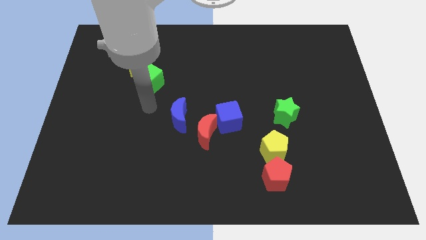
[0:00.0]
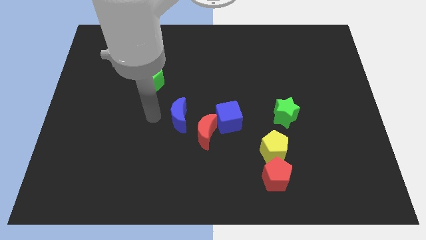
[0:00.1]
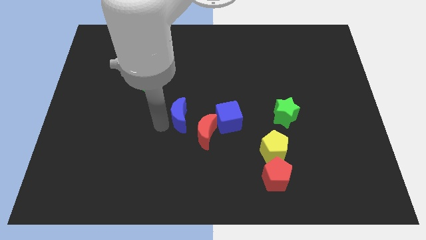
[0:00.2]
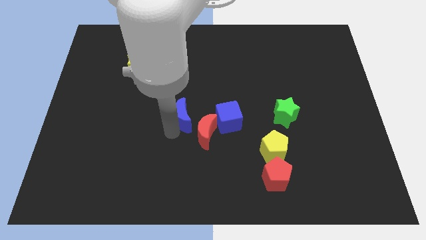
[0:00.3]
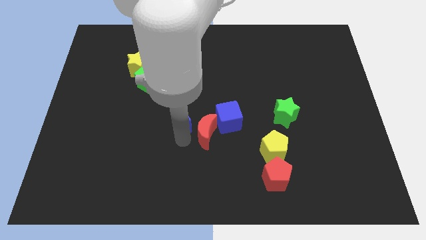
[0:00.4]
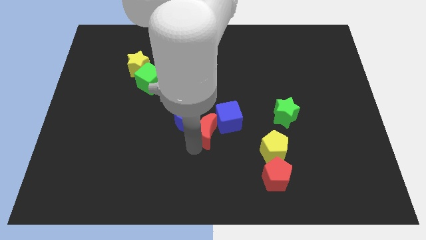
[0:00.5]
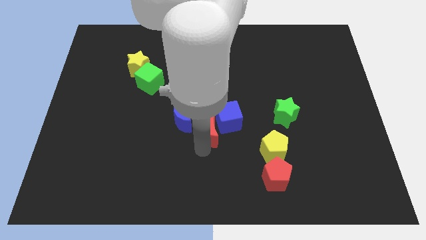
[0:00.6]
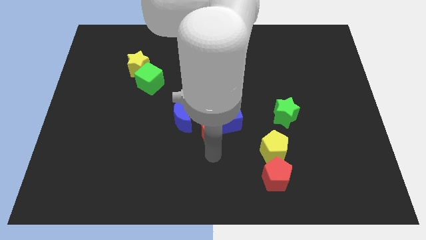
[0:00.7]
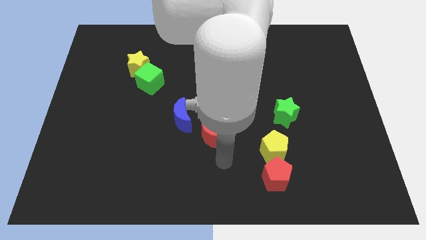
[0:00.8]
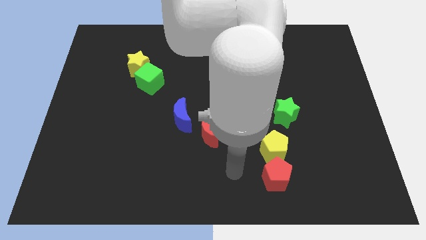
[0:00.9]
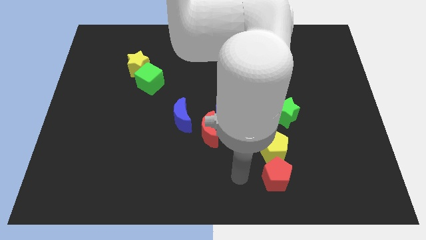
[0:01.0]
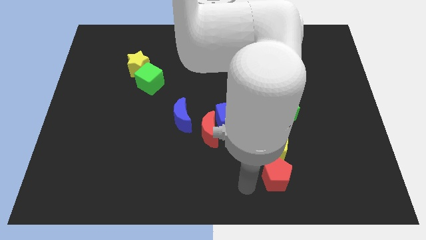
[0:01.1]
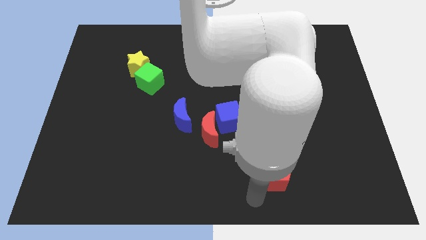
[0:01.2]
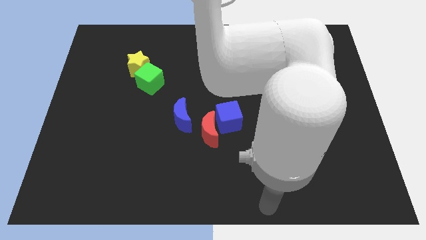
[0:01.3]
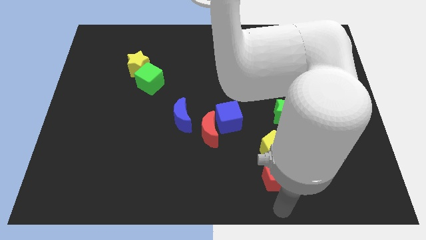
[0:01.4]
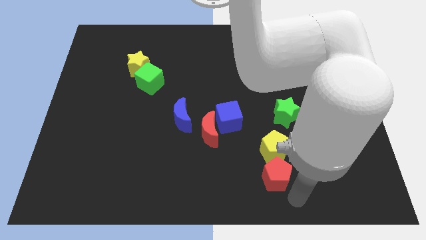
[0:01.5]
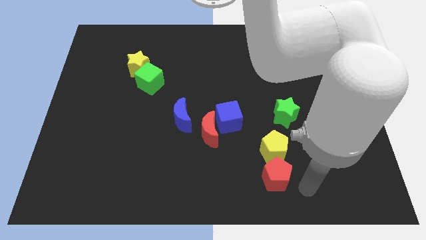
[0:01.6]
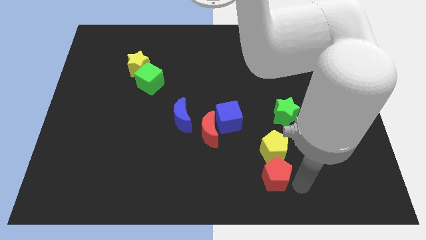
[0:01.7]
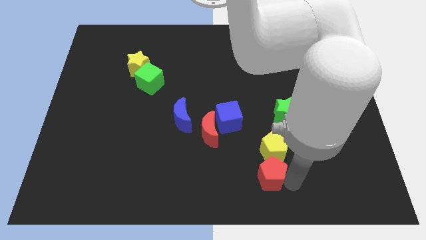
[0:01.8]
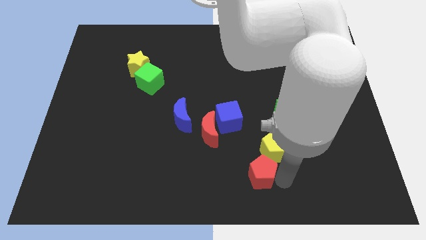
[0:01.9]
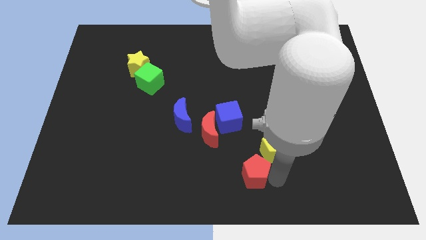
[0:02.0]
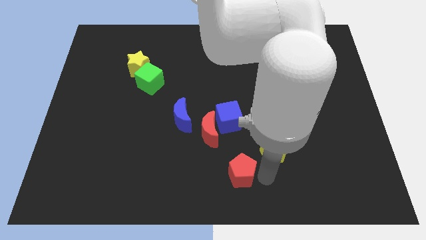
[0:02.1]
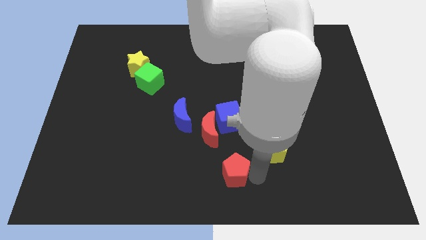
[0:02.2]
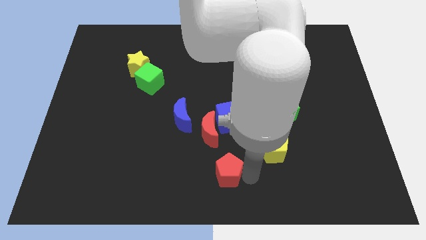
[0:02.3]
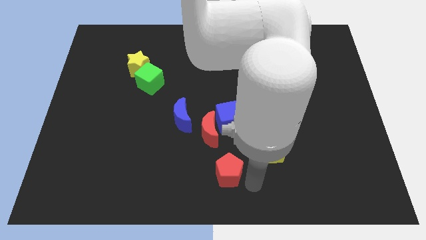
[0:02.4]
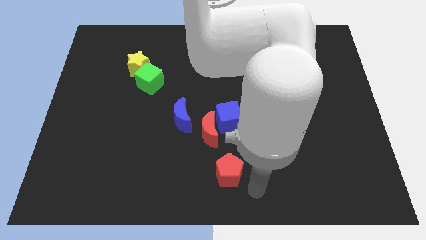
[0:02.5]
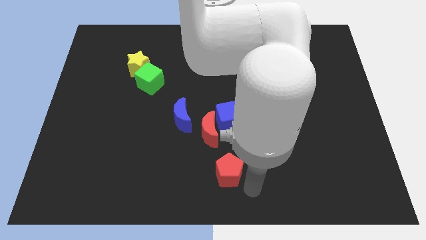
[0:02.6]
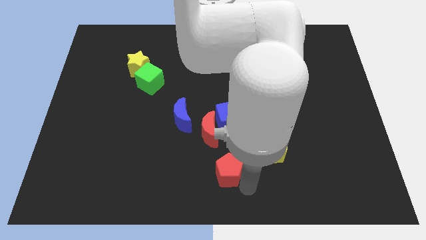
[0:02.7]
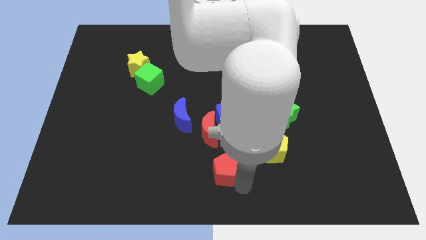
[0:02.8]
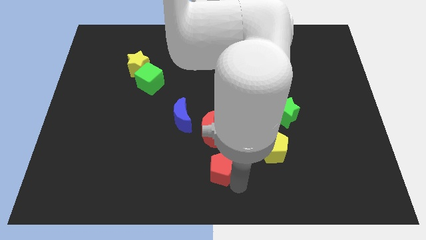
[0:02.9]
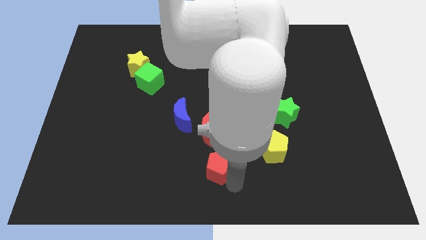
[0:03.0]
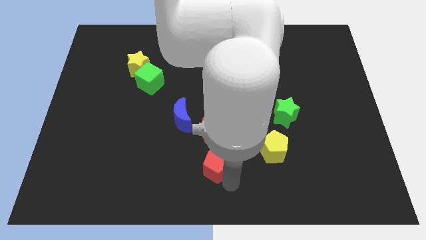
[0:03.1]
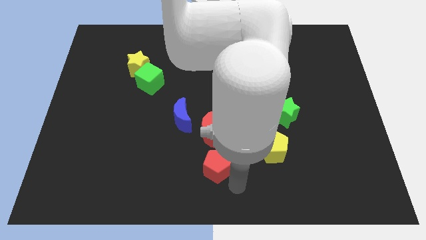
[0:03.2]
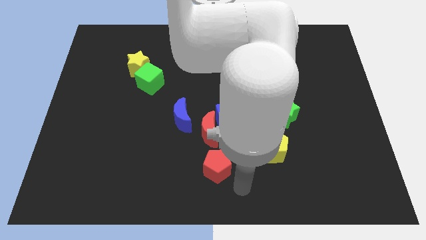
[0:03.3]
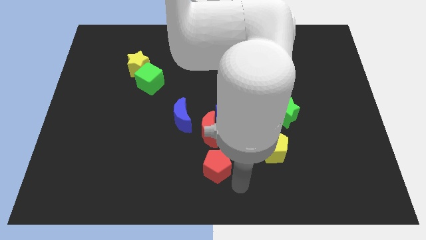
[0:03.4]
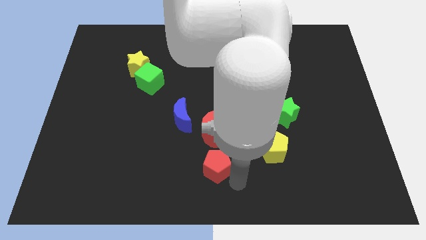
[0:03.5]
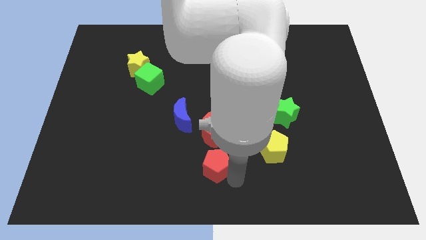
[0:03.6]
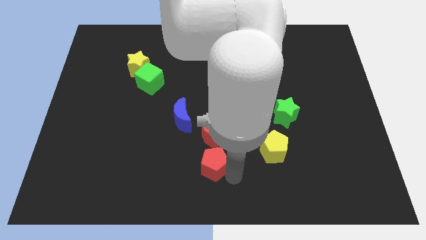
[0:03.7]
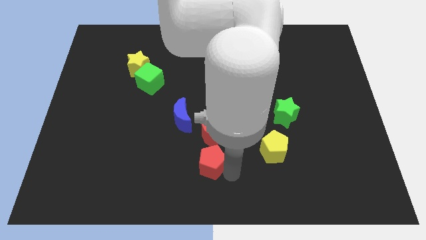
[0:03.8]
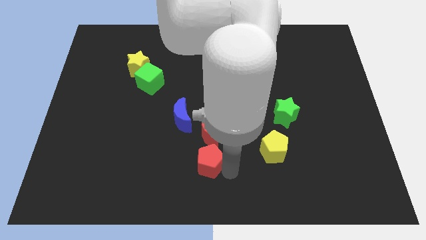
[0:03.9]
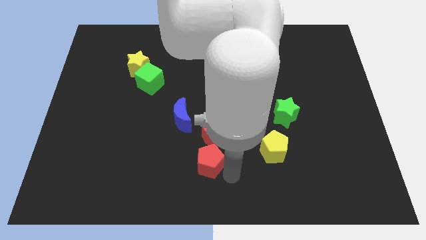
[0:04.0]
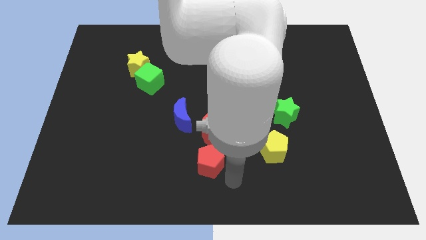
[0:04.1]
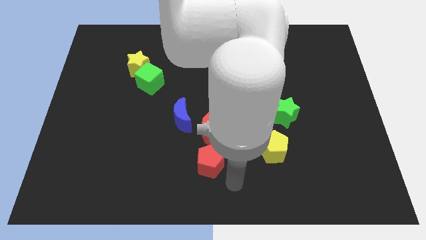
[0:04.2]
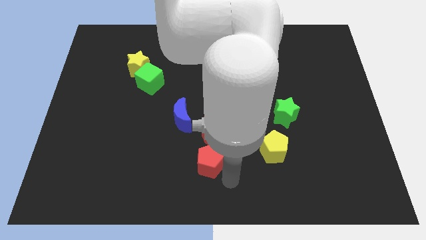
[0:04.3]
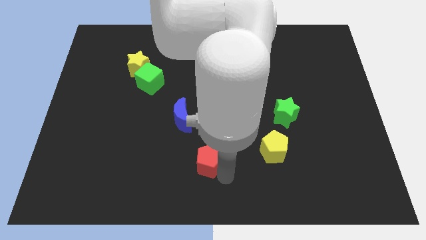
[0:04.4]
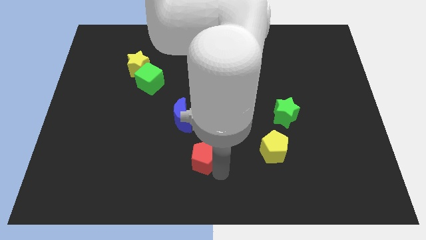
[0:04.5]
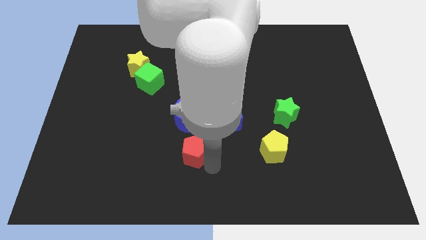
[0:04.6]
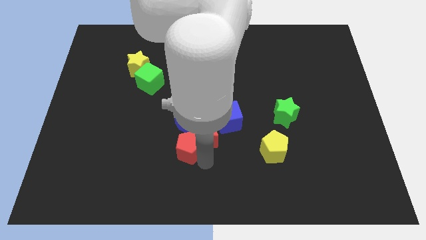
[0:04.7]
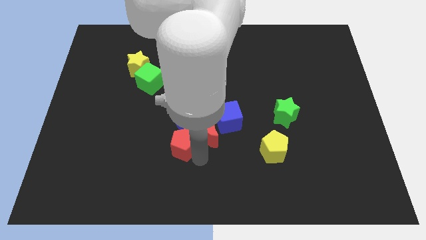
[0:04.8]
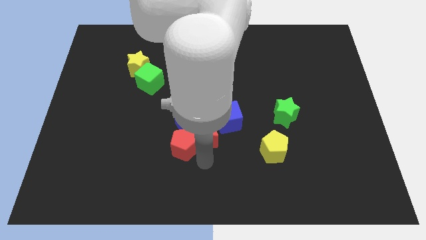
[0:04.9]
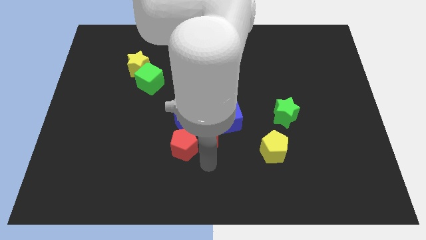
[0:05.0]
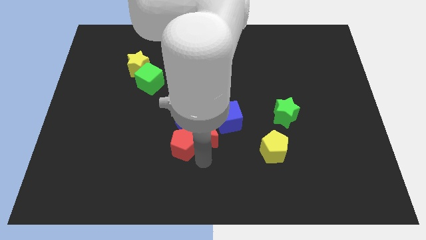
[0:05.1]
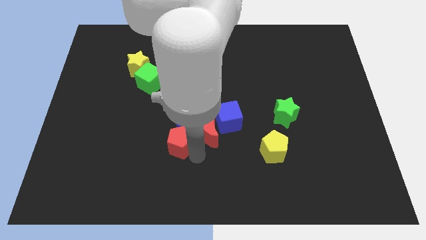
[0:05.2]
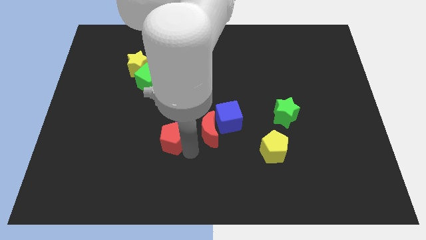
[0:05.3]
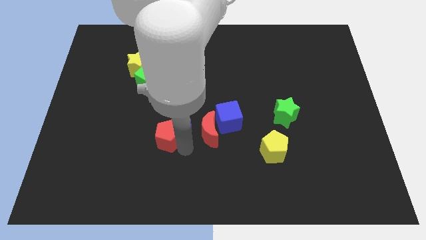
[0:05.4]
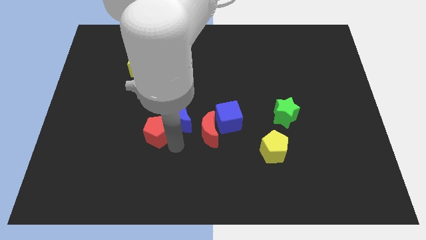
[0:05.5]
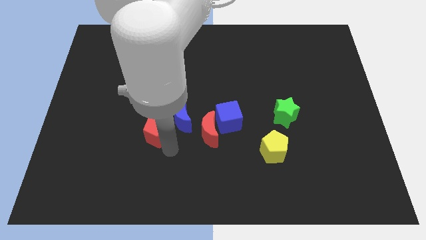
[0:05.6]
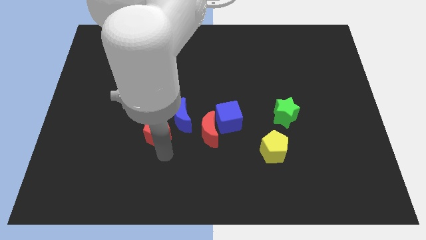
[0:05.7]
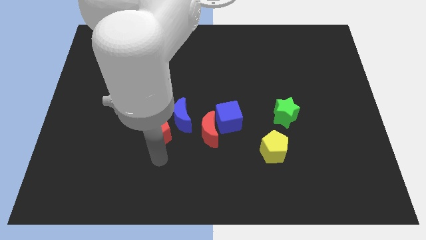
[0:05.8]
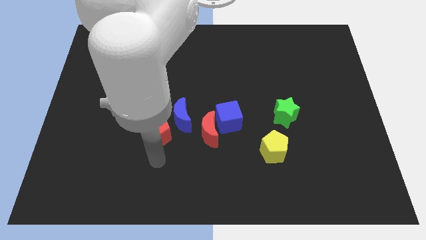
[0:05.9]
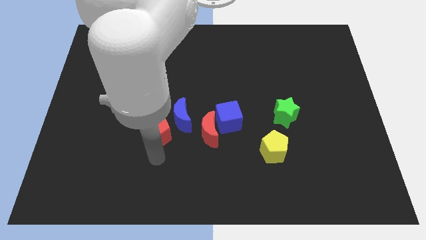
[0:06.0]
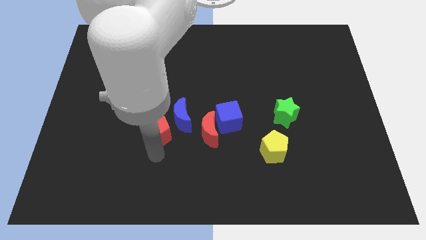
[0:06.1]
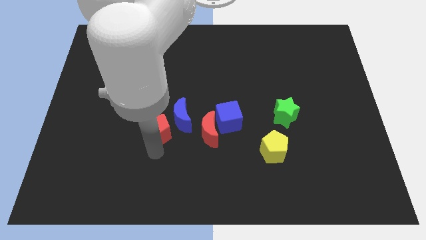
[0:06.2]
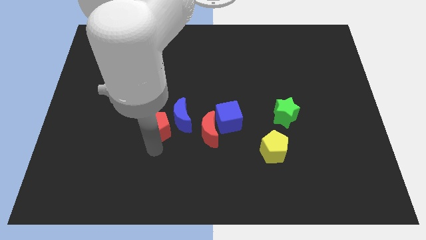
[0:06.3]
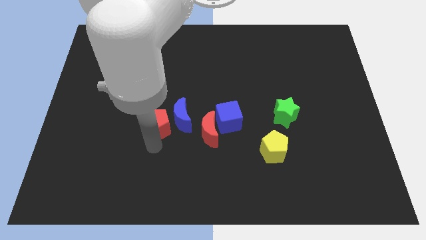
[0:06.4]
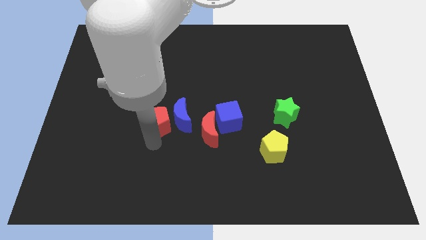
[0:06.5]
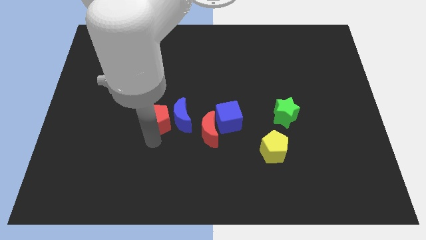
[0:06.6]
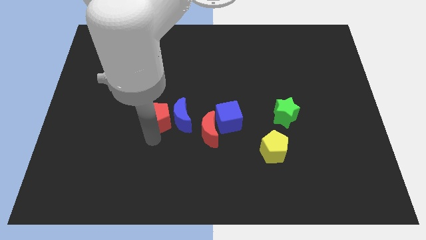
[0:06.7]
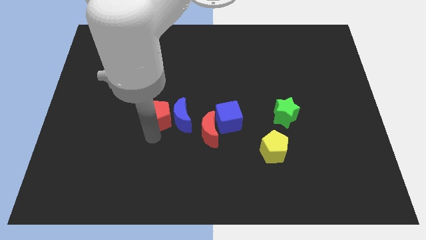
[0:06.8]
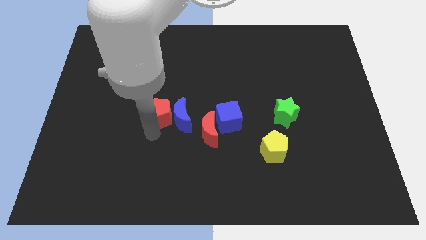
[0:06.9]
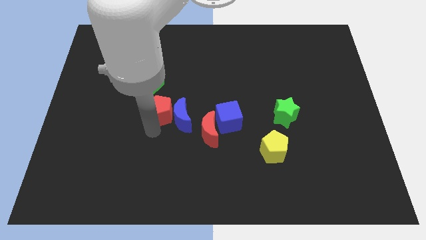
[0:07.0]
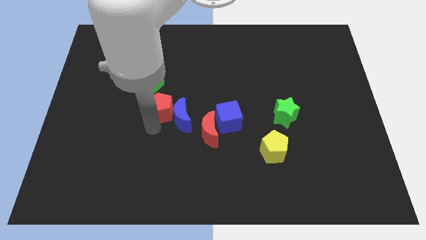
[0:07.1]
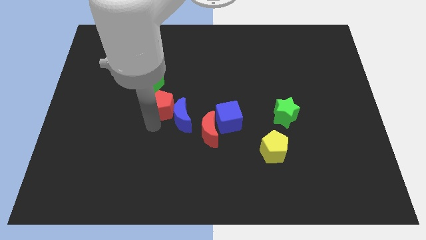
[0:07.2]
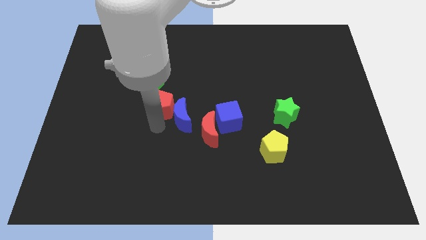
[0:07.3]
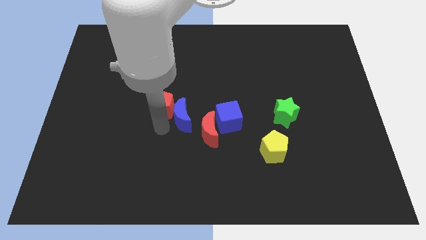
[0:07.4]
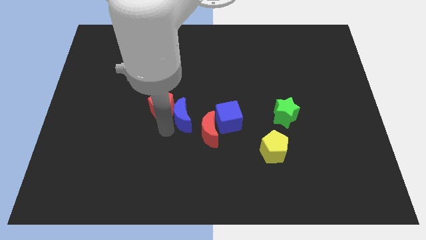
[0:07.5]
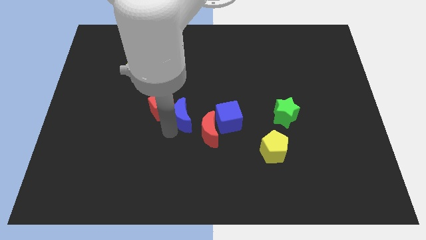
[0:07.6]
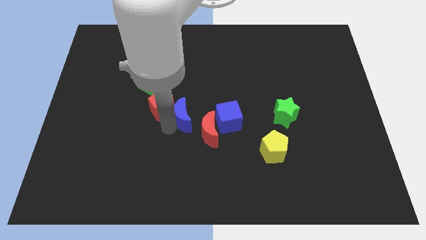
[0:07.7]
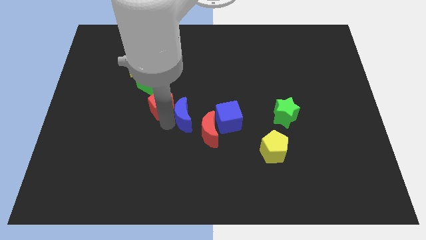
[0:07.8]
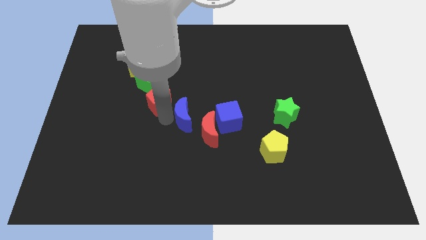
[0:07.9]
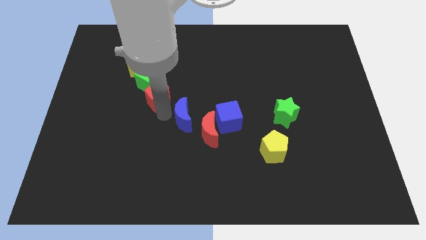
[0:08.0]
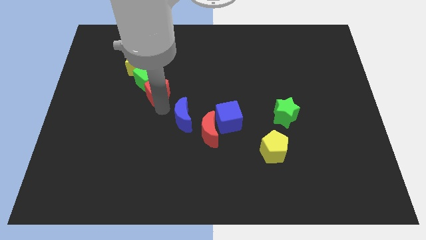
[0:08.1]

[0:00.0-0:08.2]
move the red pentagon close to the green cube

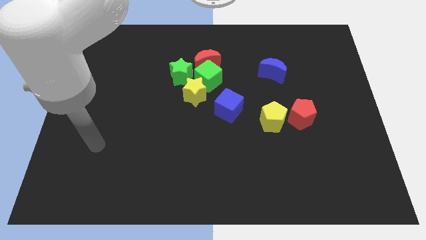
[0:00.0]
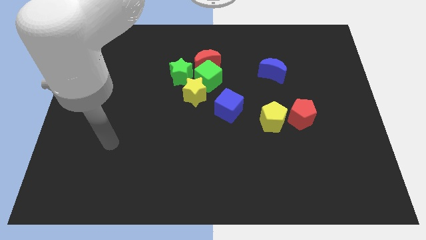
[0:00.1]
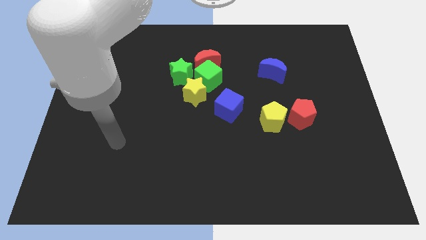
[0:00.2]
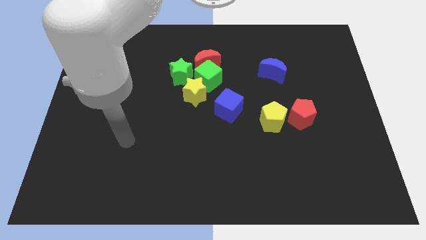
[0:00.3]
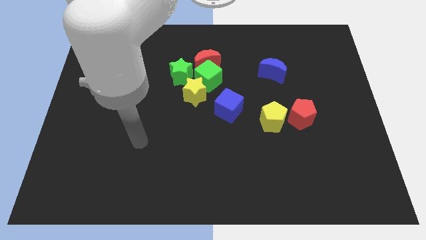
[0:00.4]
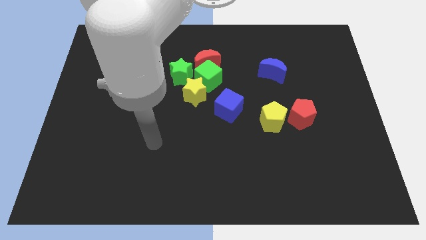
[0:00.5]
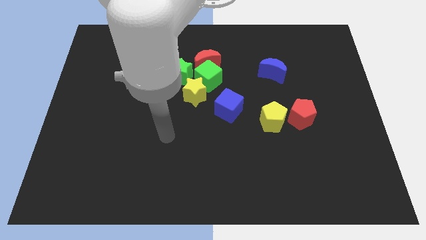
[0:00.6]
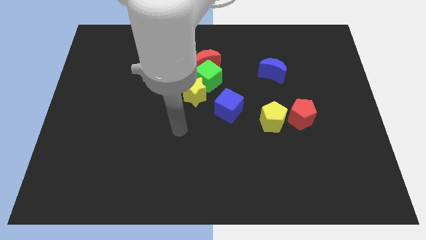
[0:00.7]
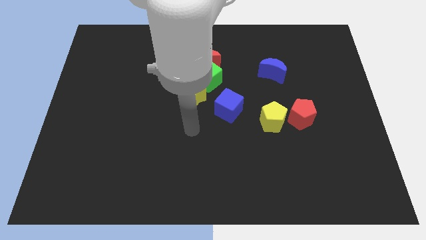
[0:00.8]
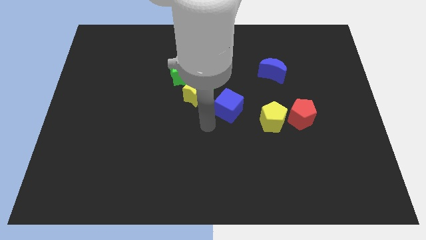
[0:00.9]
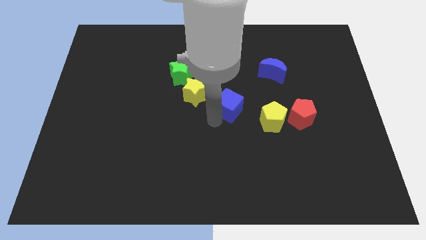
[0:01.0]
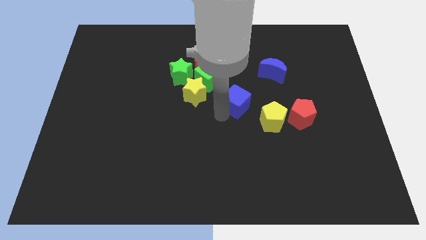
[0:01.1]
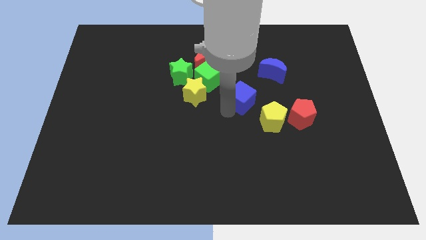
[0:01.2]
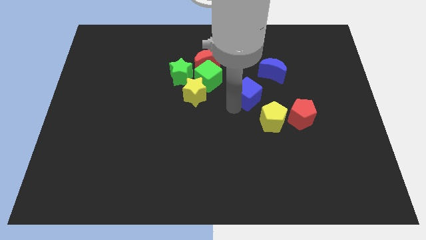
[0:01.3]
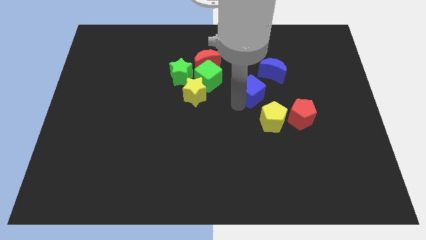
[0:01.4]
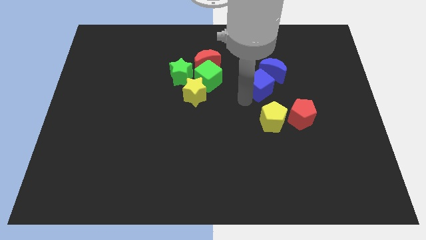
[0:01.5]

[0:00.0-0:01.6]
slide the blue cube to the blue moon
